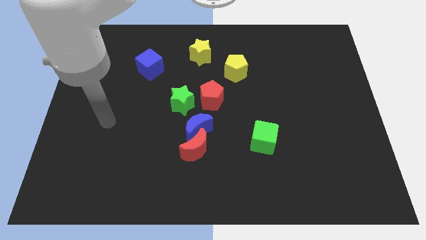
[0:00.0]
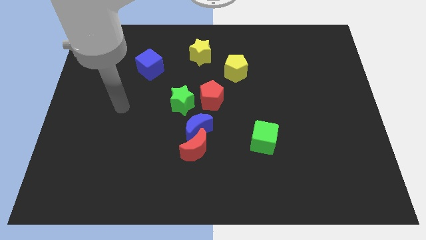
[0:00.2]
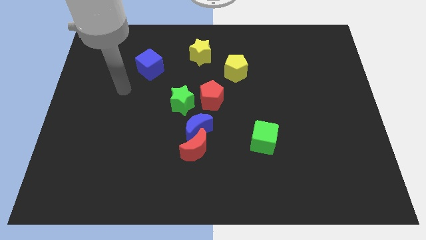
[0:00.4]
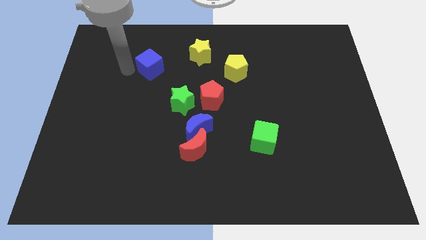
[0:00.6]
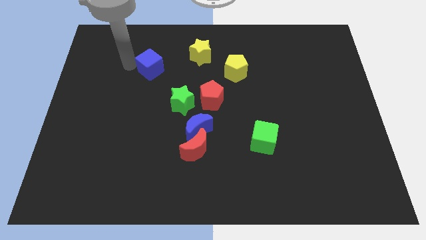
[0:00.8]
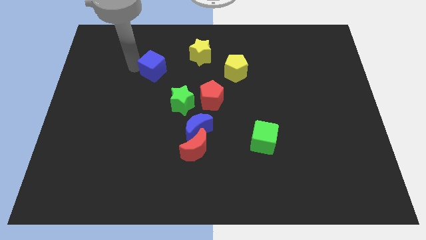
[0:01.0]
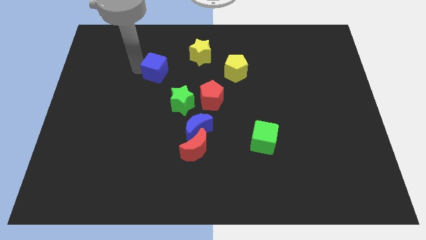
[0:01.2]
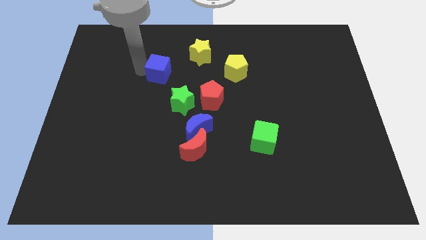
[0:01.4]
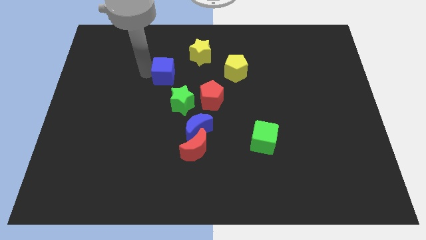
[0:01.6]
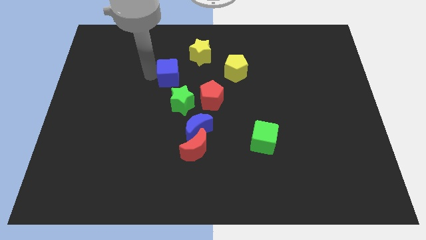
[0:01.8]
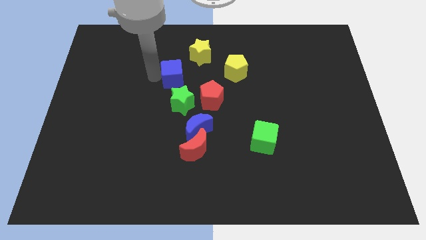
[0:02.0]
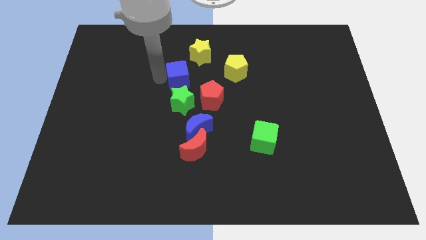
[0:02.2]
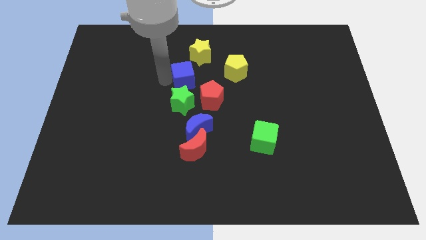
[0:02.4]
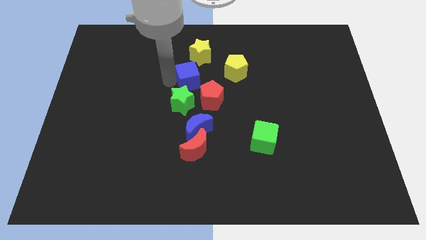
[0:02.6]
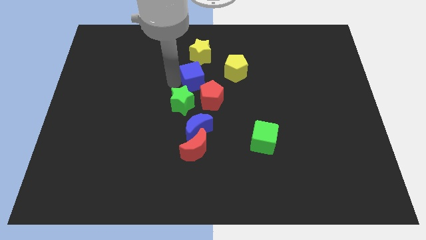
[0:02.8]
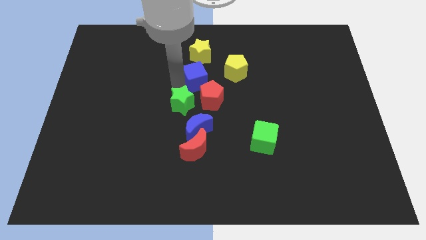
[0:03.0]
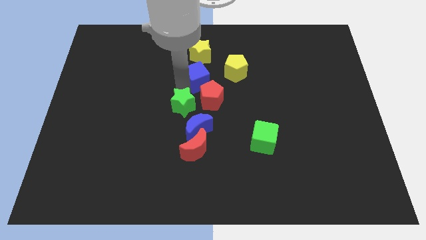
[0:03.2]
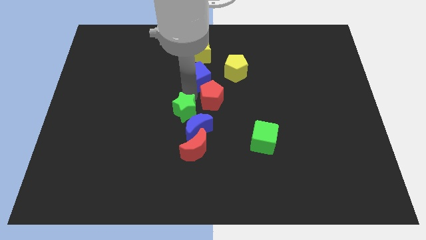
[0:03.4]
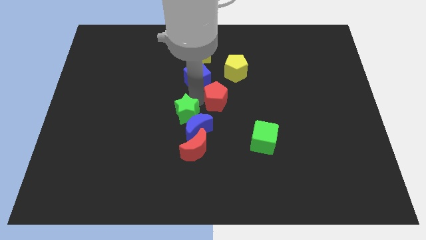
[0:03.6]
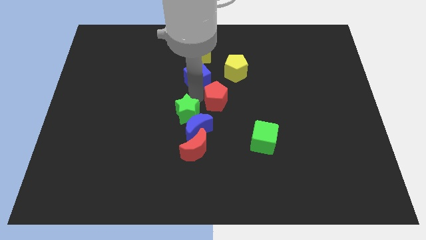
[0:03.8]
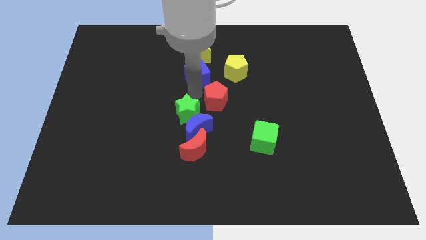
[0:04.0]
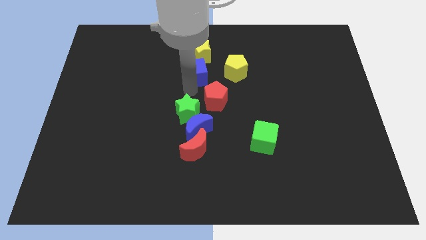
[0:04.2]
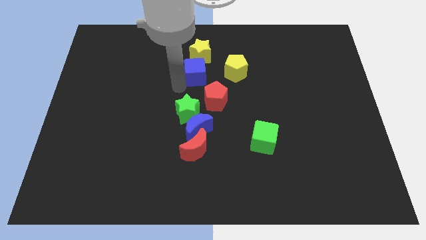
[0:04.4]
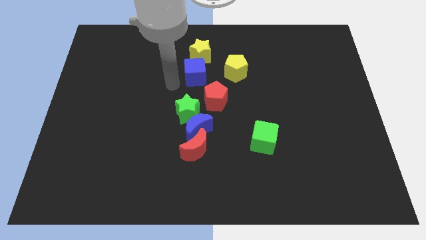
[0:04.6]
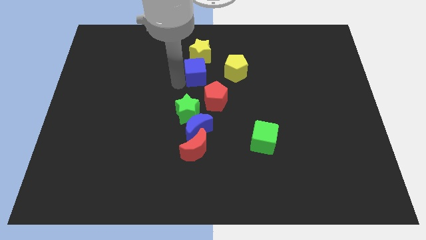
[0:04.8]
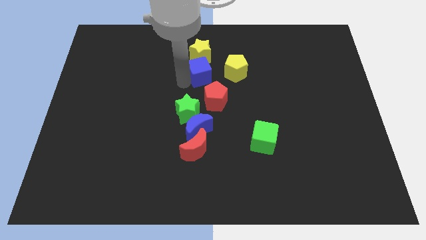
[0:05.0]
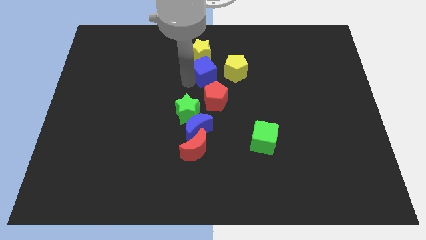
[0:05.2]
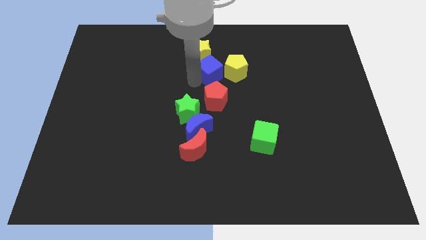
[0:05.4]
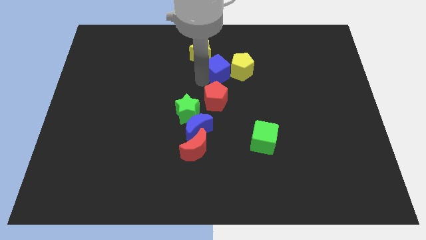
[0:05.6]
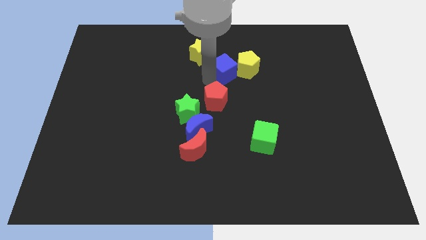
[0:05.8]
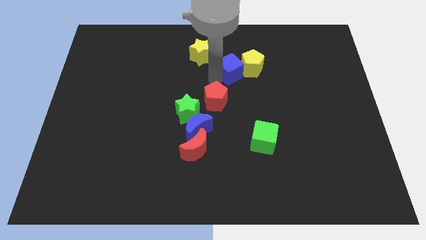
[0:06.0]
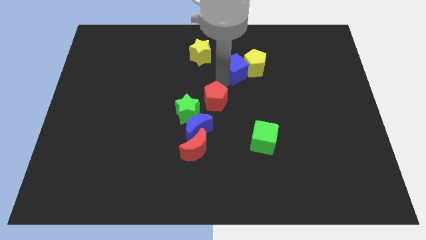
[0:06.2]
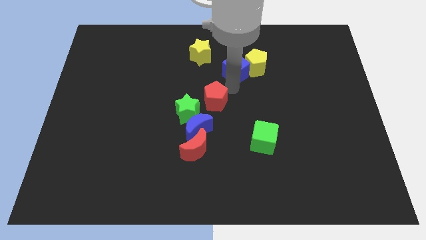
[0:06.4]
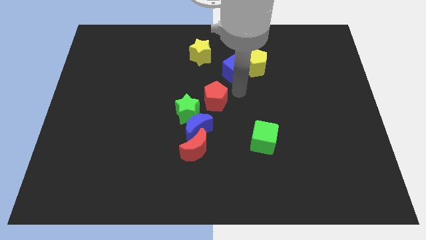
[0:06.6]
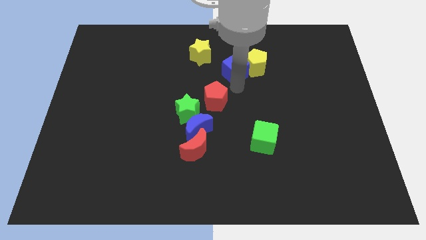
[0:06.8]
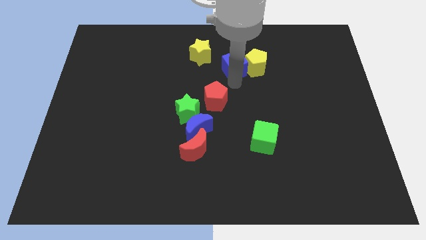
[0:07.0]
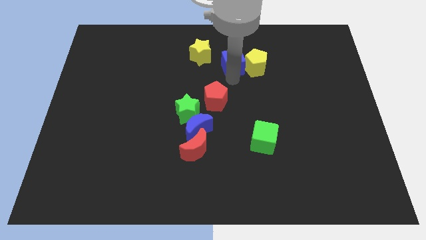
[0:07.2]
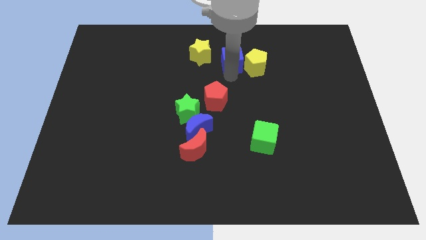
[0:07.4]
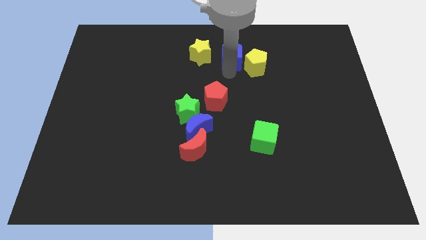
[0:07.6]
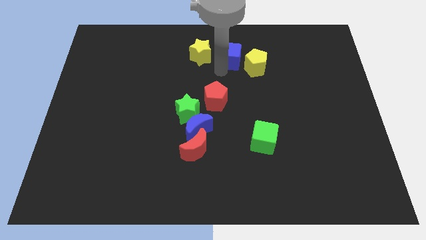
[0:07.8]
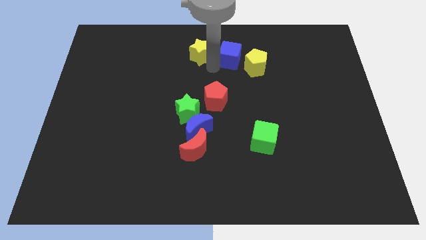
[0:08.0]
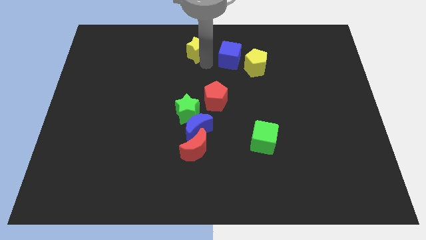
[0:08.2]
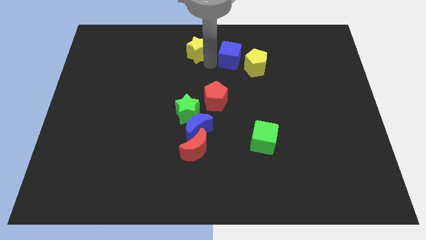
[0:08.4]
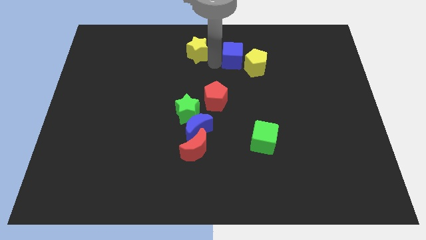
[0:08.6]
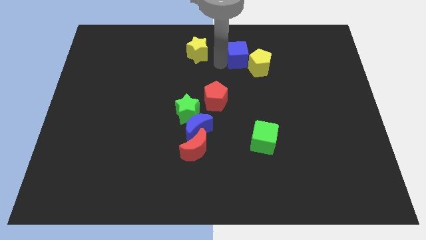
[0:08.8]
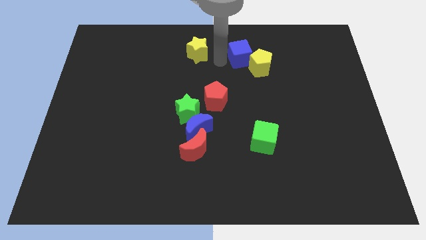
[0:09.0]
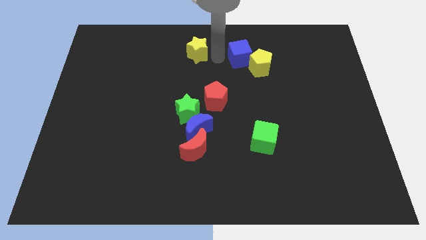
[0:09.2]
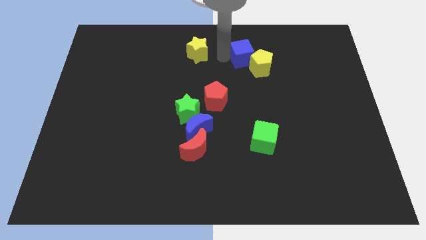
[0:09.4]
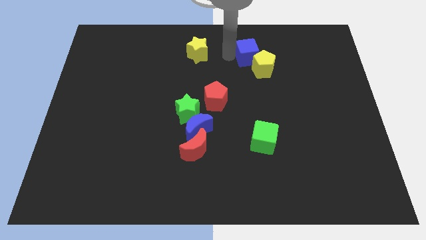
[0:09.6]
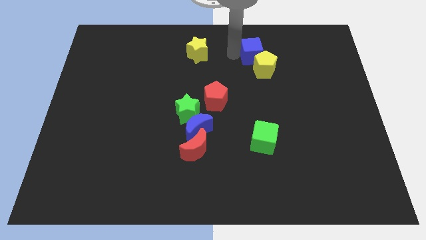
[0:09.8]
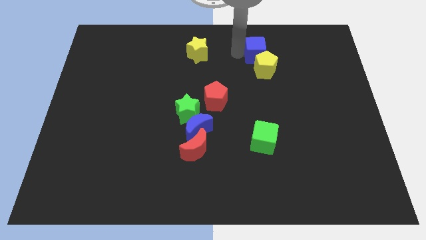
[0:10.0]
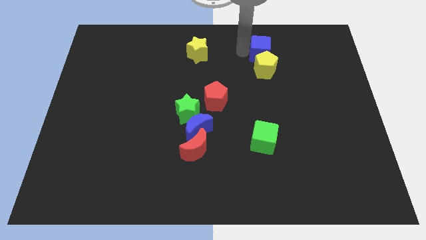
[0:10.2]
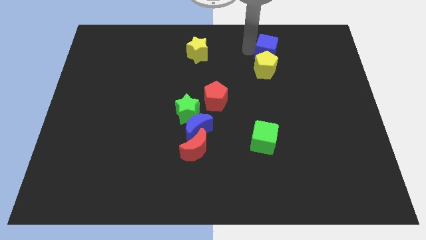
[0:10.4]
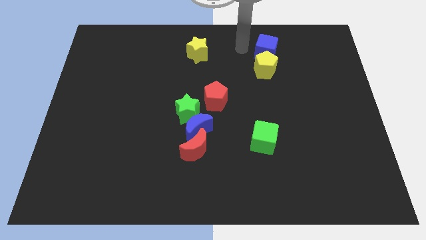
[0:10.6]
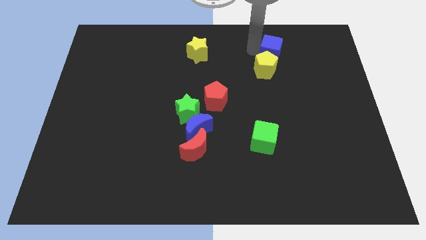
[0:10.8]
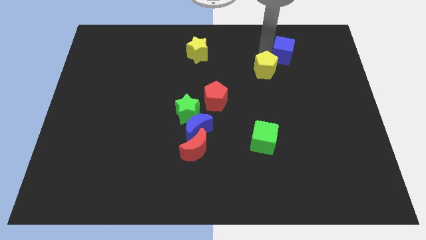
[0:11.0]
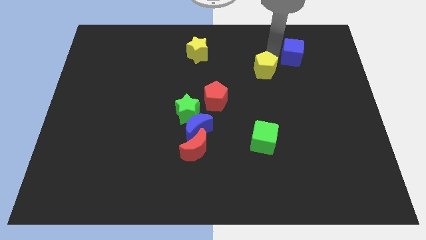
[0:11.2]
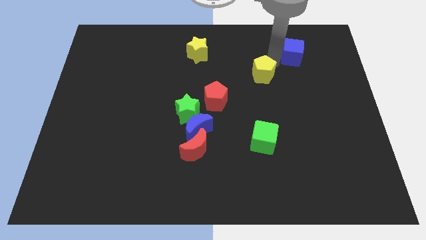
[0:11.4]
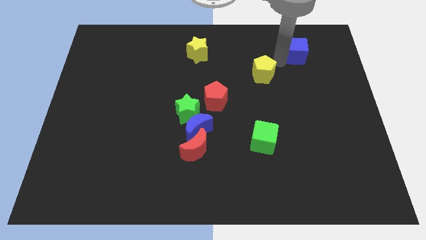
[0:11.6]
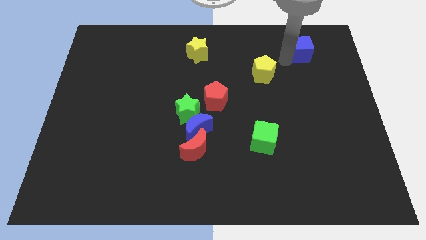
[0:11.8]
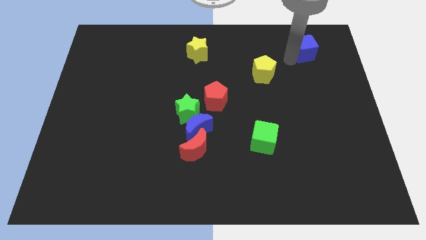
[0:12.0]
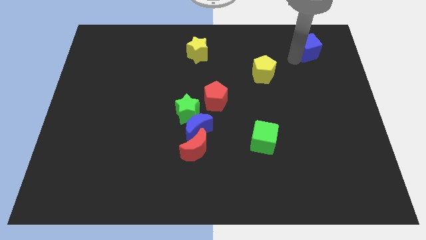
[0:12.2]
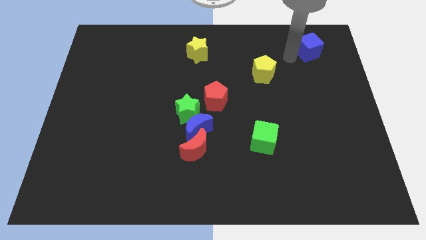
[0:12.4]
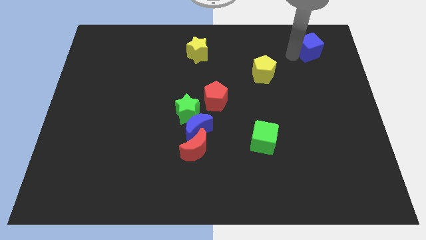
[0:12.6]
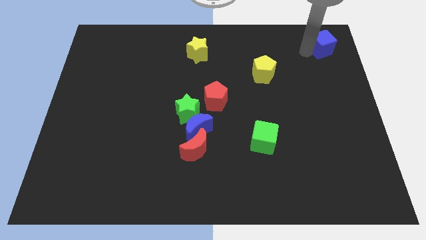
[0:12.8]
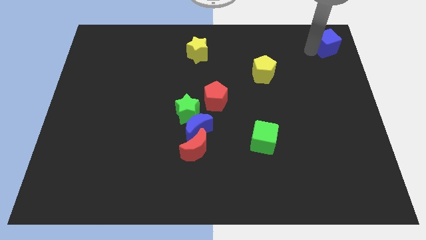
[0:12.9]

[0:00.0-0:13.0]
push the blue cube to the upper right corner

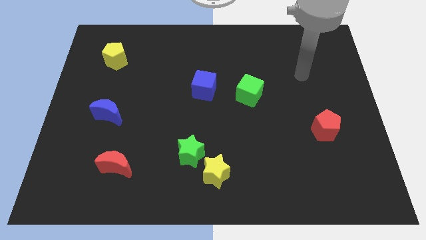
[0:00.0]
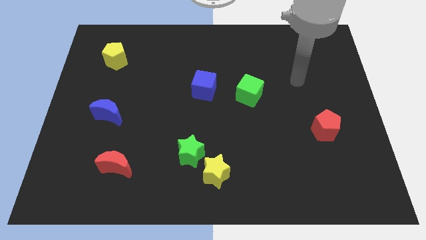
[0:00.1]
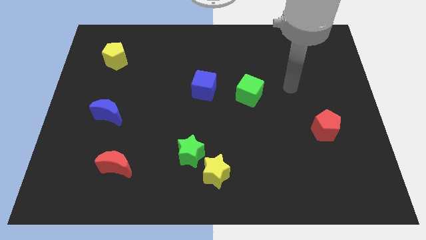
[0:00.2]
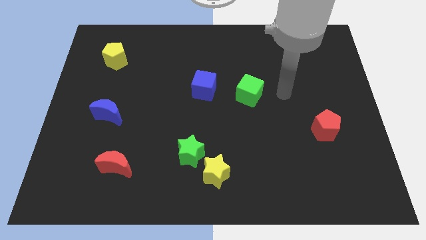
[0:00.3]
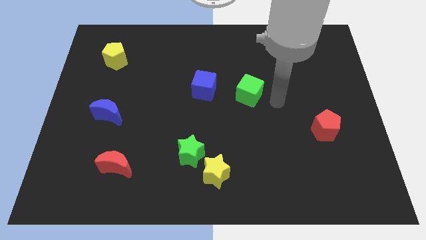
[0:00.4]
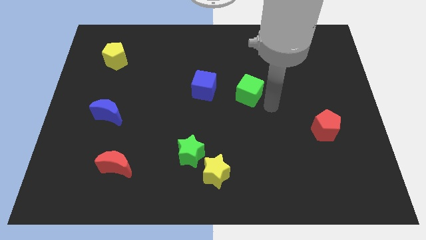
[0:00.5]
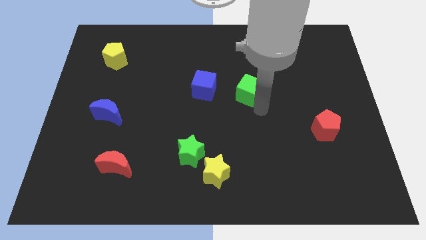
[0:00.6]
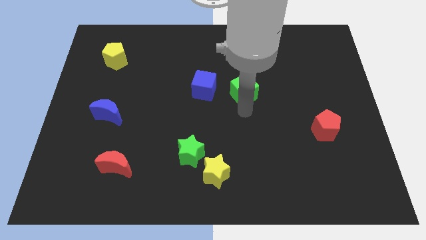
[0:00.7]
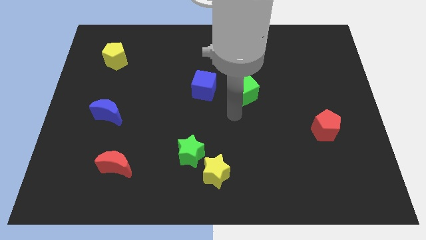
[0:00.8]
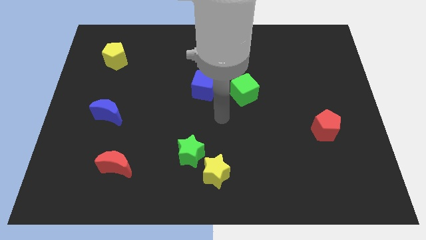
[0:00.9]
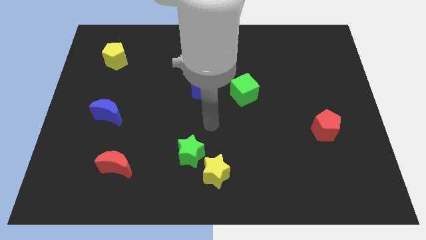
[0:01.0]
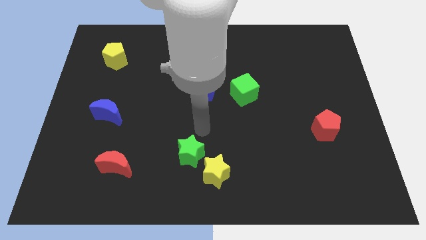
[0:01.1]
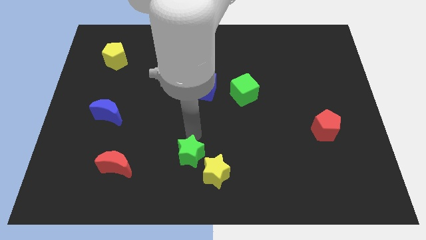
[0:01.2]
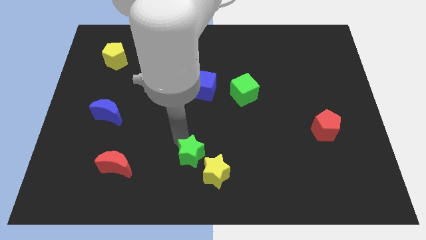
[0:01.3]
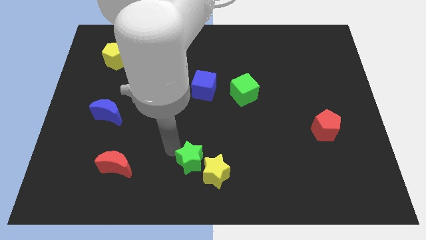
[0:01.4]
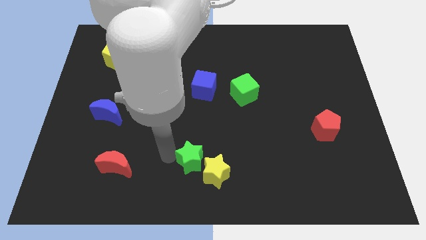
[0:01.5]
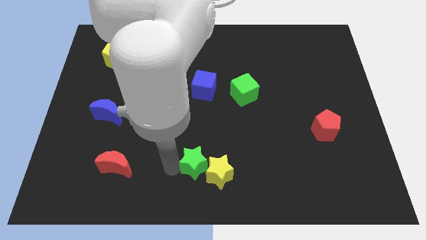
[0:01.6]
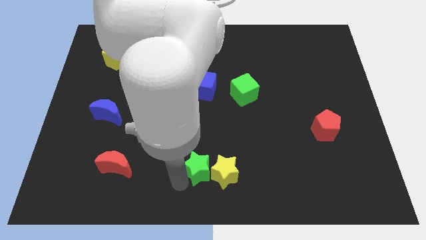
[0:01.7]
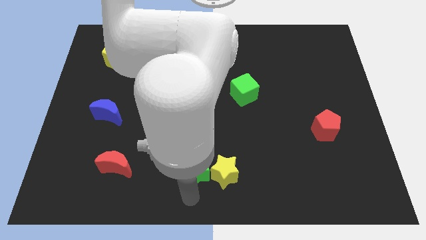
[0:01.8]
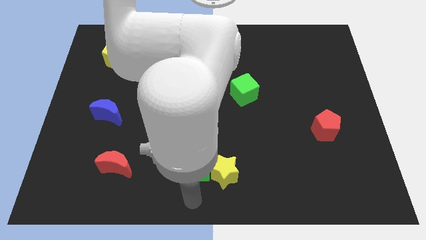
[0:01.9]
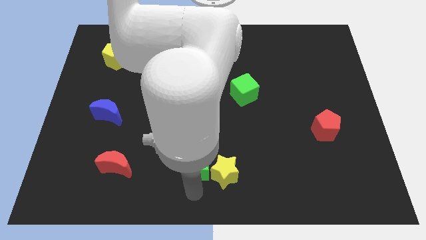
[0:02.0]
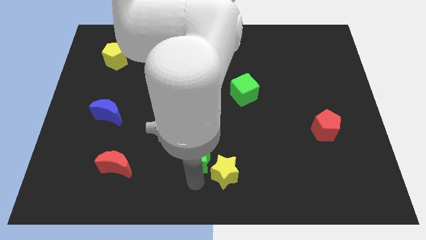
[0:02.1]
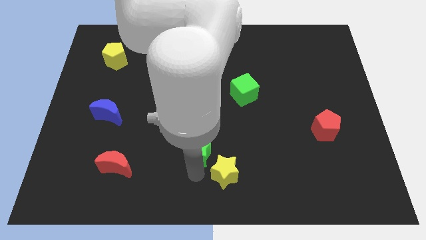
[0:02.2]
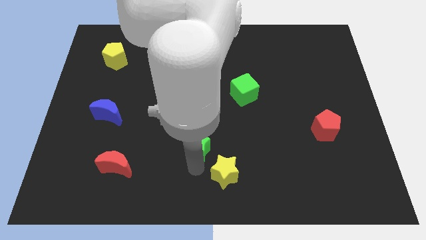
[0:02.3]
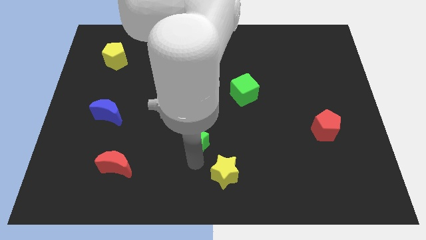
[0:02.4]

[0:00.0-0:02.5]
push the green star to the middle
